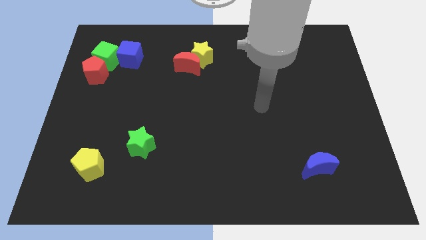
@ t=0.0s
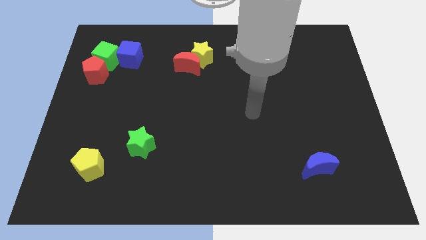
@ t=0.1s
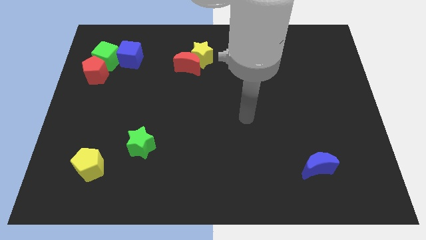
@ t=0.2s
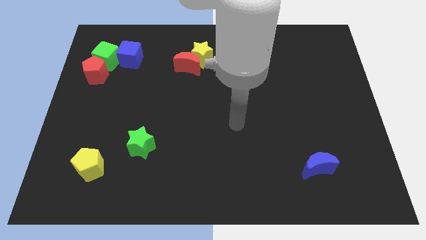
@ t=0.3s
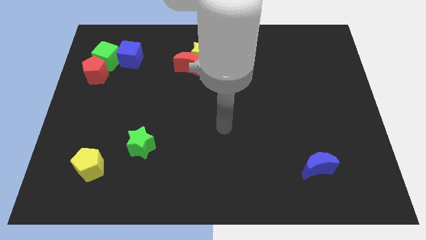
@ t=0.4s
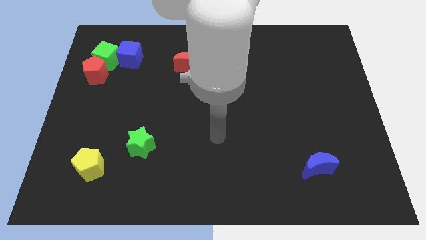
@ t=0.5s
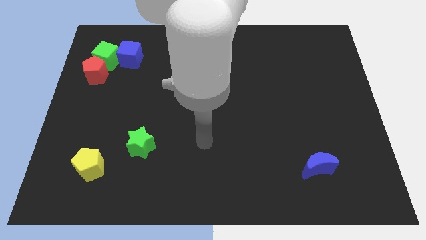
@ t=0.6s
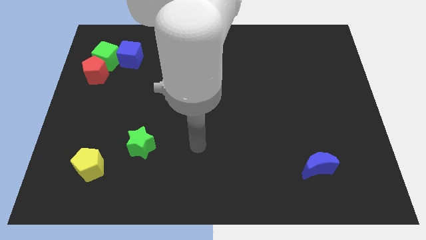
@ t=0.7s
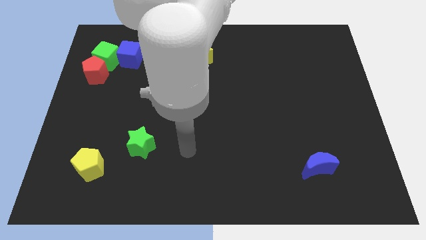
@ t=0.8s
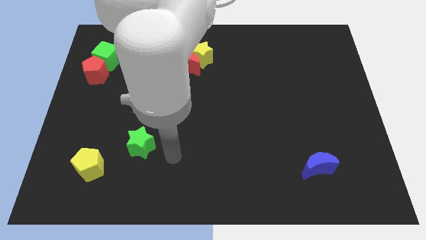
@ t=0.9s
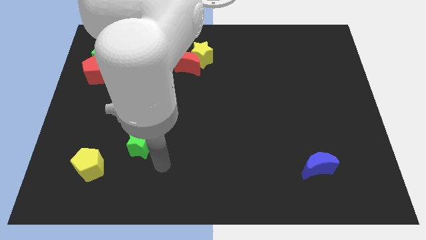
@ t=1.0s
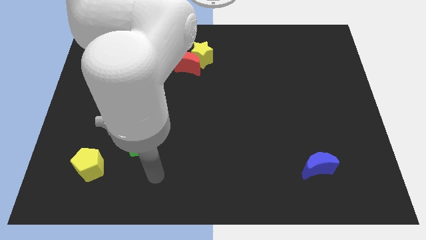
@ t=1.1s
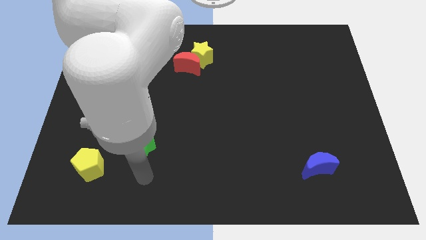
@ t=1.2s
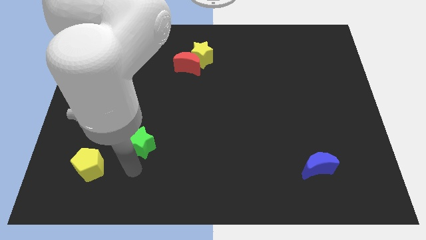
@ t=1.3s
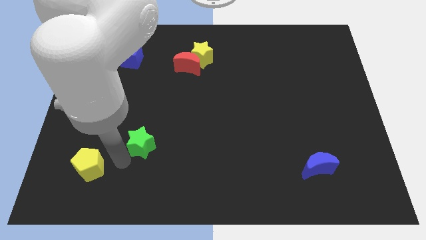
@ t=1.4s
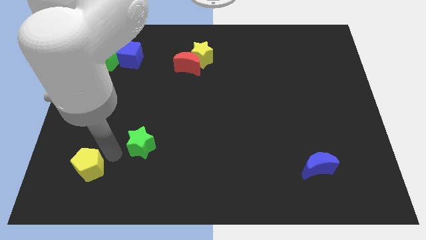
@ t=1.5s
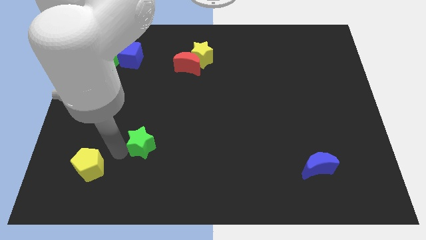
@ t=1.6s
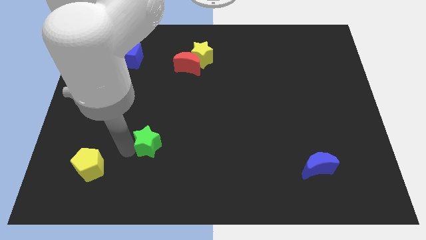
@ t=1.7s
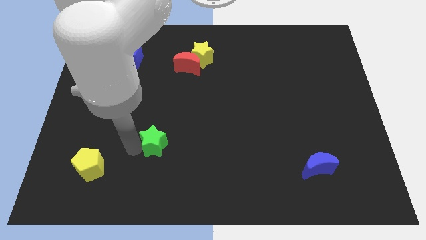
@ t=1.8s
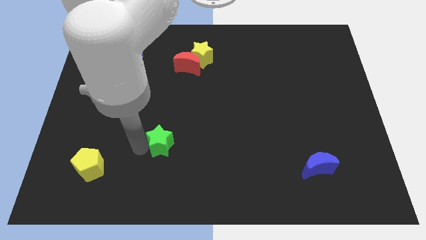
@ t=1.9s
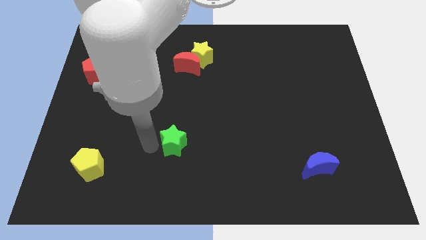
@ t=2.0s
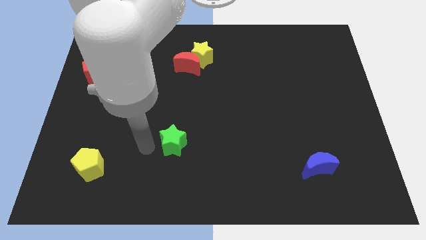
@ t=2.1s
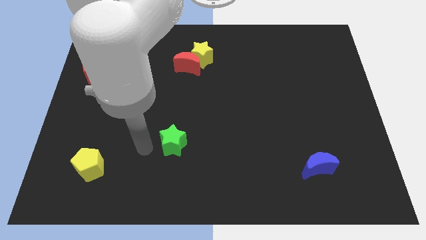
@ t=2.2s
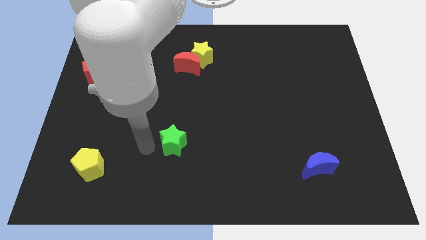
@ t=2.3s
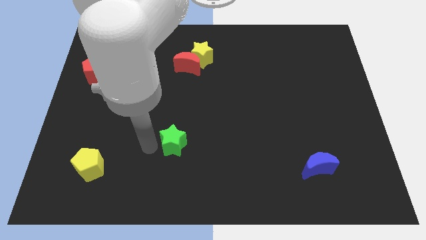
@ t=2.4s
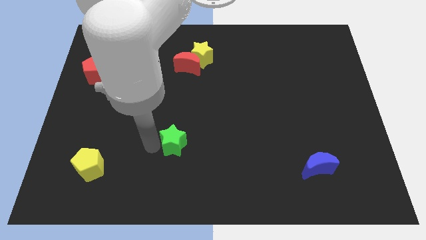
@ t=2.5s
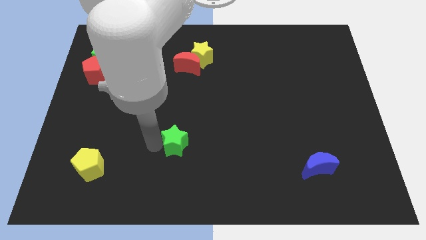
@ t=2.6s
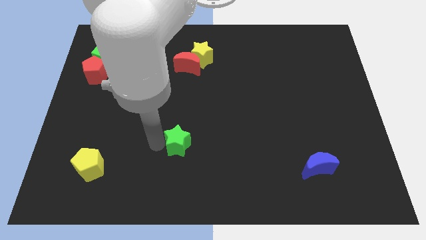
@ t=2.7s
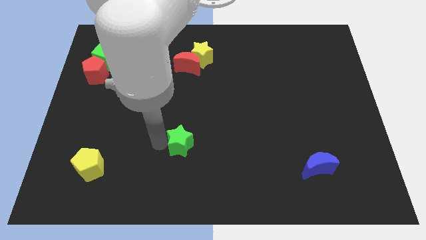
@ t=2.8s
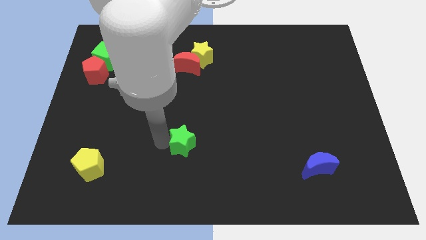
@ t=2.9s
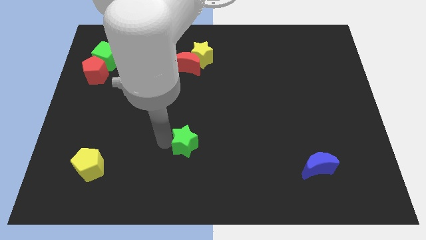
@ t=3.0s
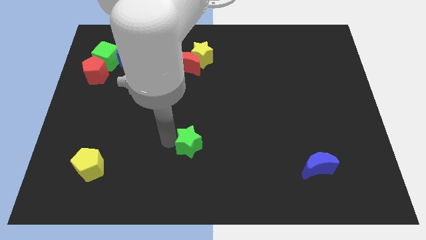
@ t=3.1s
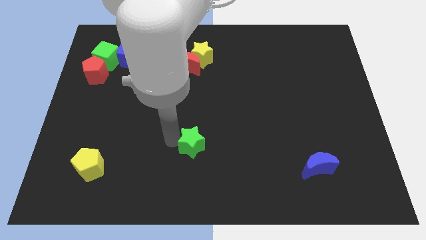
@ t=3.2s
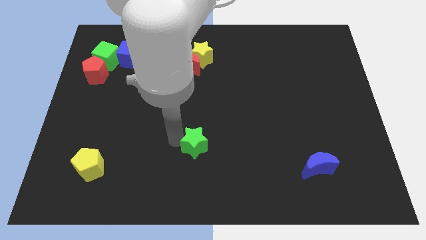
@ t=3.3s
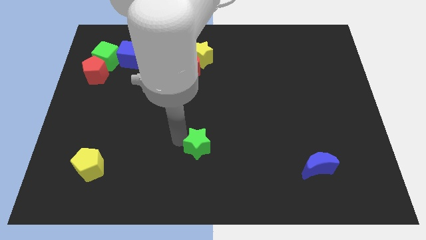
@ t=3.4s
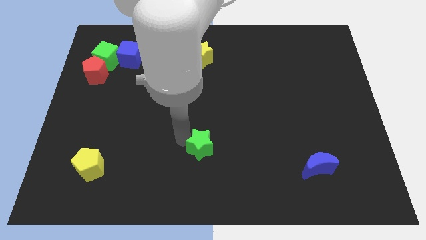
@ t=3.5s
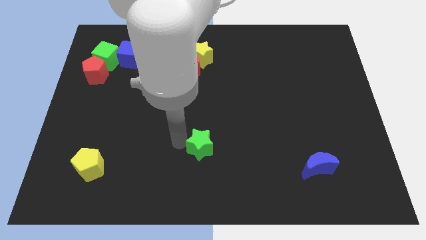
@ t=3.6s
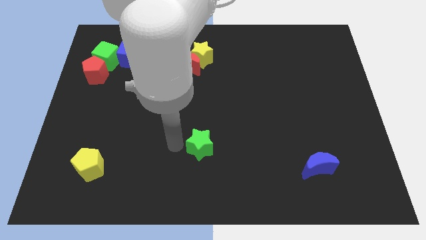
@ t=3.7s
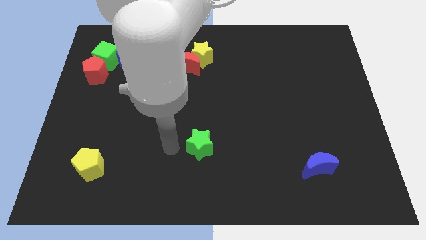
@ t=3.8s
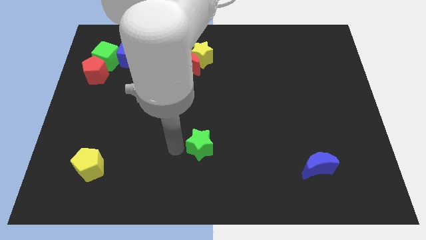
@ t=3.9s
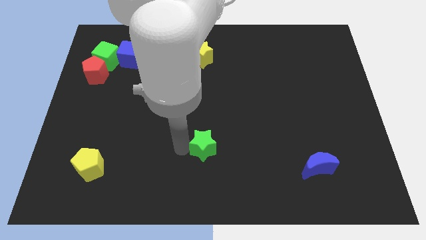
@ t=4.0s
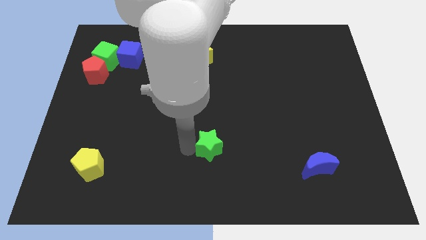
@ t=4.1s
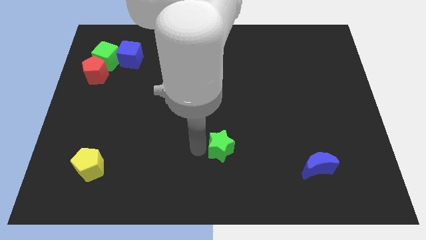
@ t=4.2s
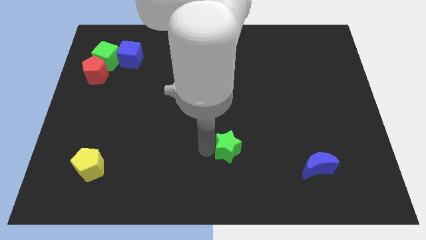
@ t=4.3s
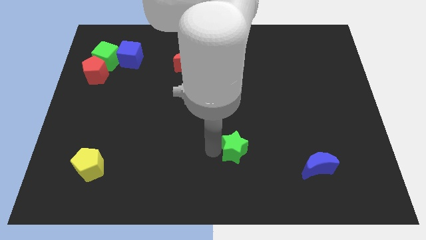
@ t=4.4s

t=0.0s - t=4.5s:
move the green star to the right

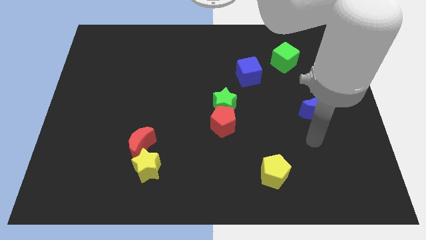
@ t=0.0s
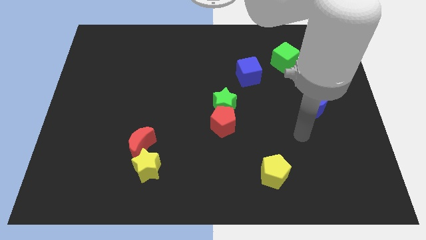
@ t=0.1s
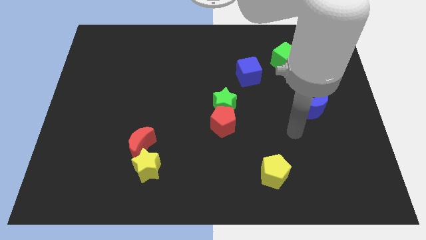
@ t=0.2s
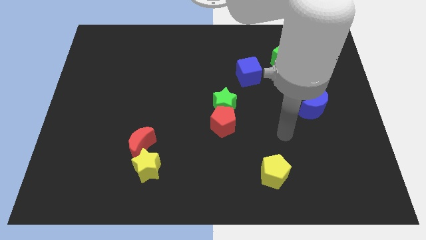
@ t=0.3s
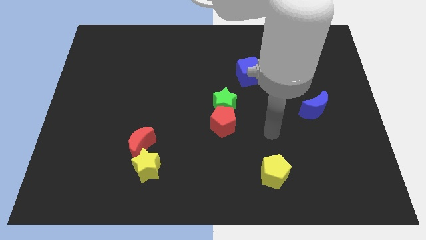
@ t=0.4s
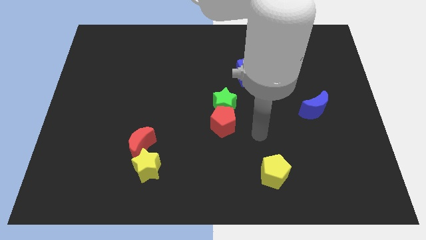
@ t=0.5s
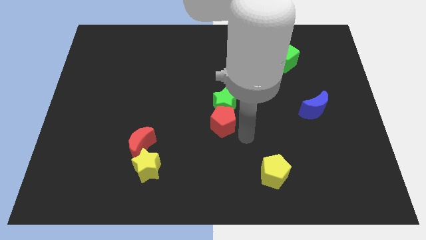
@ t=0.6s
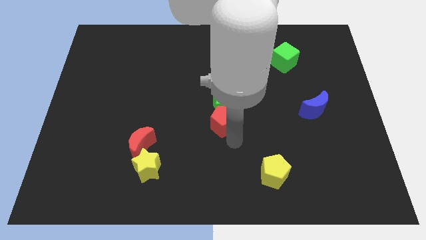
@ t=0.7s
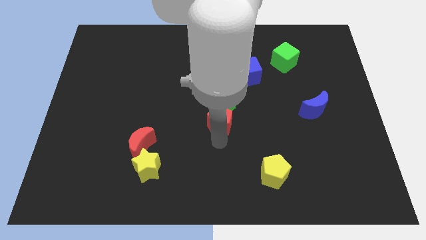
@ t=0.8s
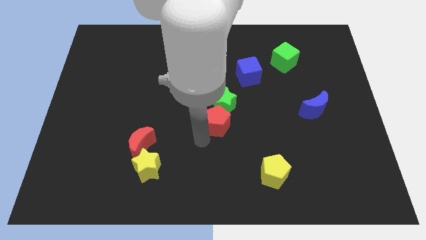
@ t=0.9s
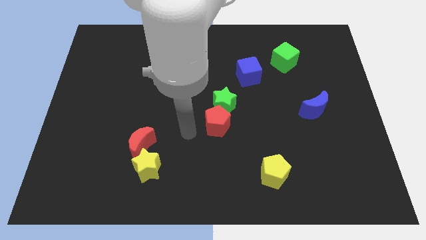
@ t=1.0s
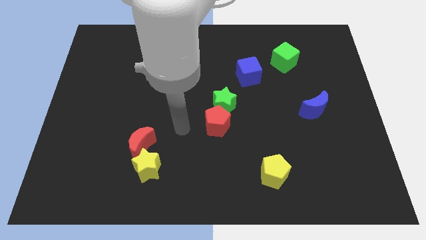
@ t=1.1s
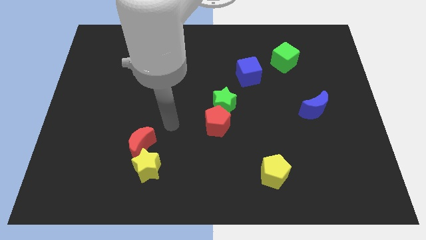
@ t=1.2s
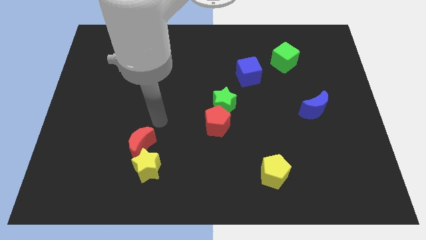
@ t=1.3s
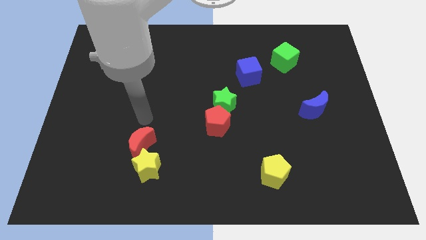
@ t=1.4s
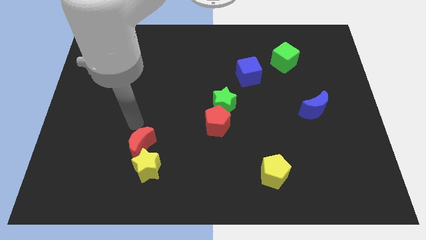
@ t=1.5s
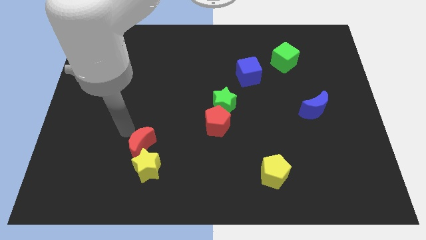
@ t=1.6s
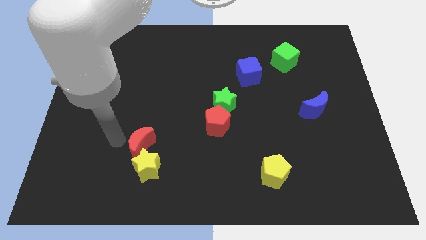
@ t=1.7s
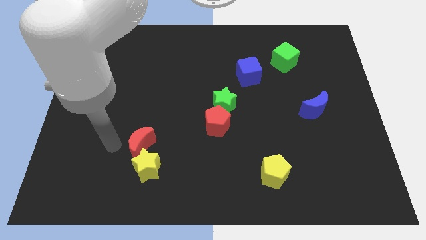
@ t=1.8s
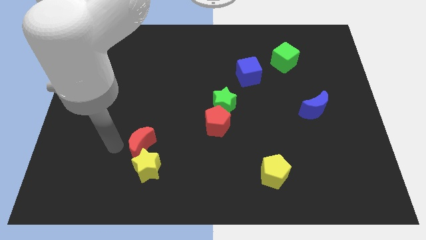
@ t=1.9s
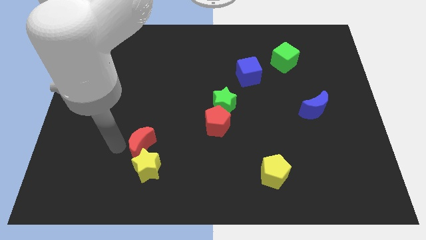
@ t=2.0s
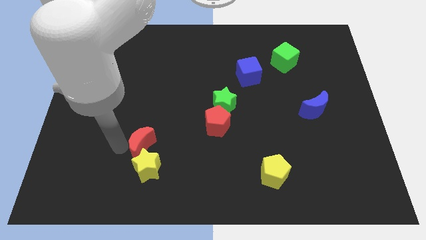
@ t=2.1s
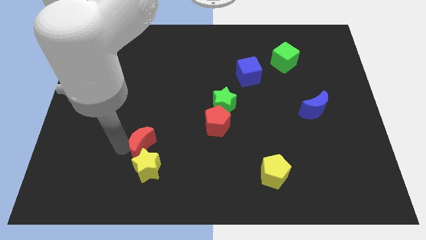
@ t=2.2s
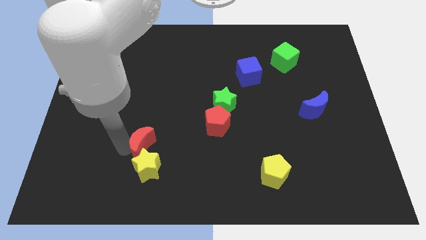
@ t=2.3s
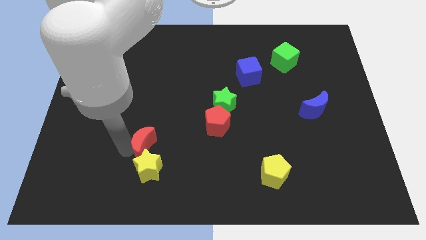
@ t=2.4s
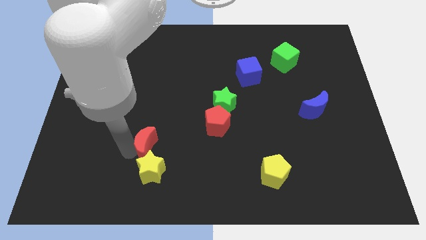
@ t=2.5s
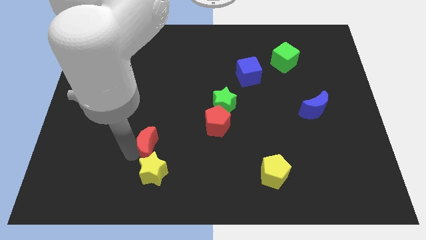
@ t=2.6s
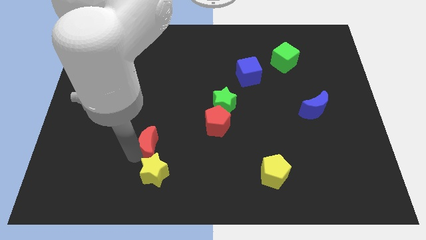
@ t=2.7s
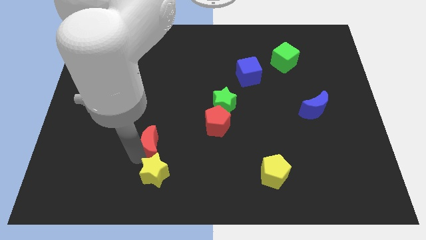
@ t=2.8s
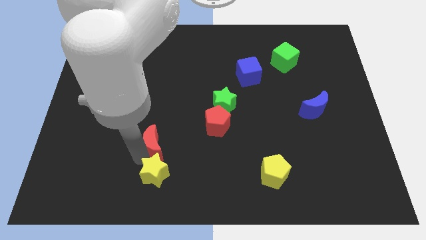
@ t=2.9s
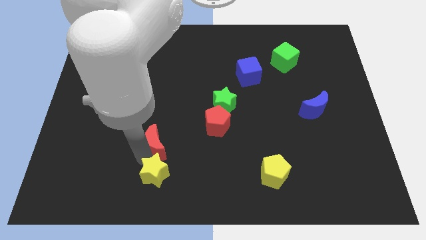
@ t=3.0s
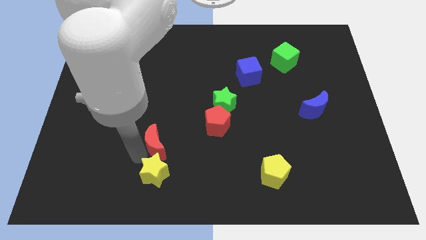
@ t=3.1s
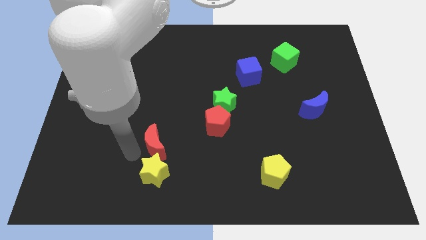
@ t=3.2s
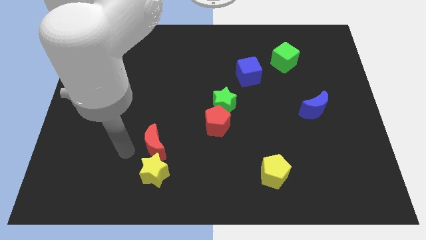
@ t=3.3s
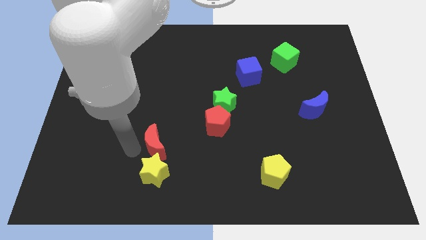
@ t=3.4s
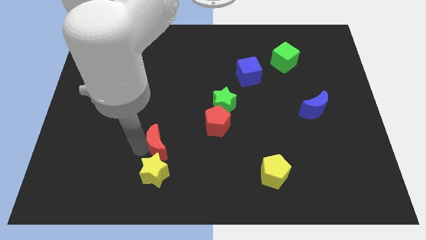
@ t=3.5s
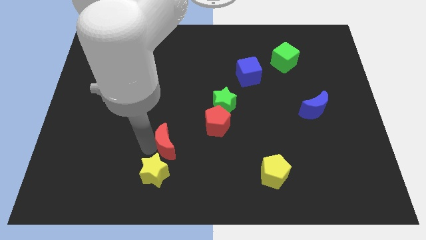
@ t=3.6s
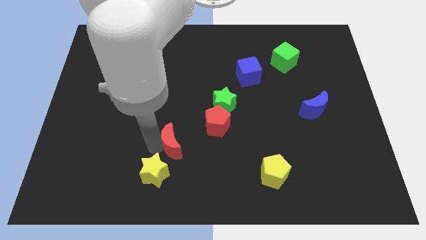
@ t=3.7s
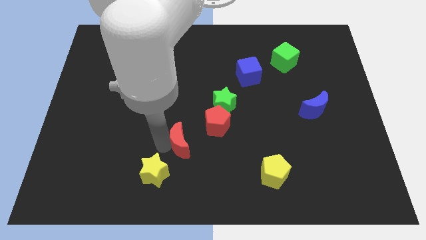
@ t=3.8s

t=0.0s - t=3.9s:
push the red moon right a bit
